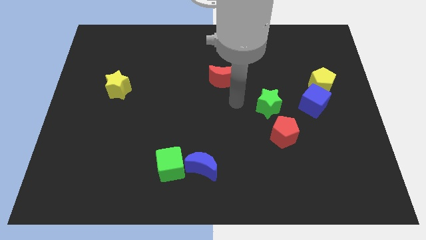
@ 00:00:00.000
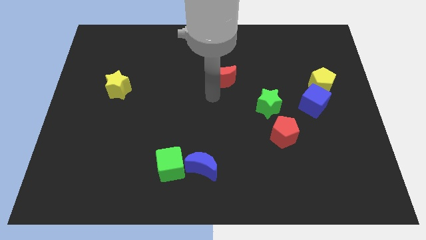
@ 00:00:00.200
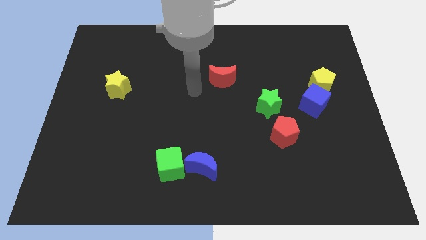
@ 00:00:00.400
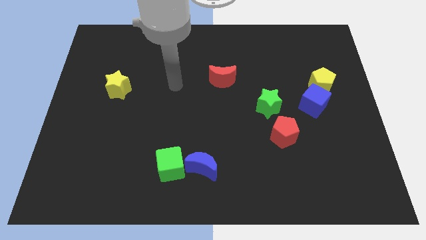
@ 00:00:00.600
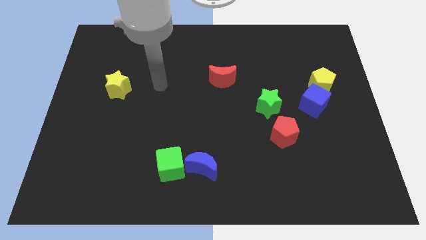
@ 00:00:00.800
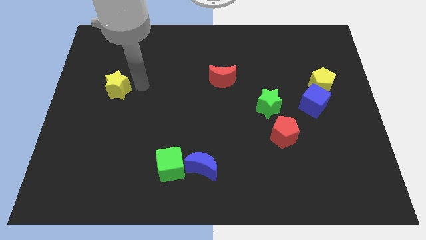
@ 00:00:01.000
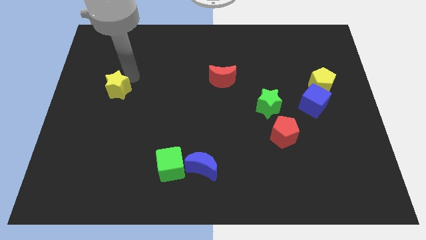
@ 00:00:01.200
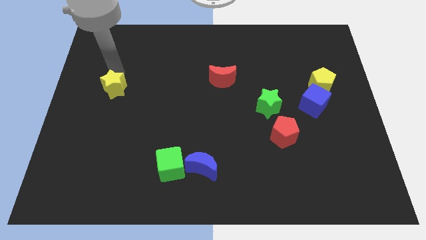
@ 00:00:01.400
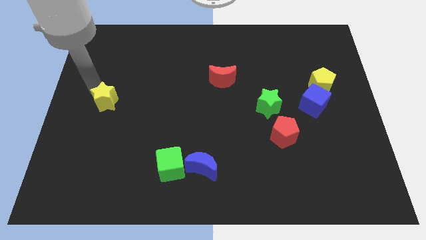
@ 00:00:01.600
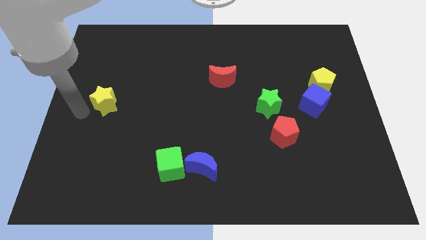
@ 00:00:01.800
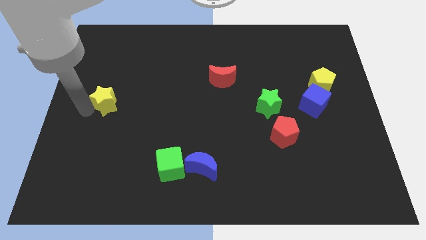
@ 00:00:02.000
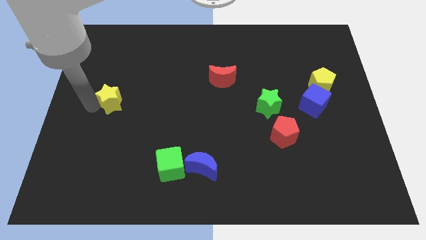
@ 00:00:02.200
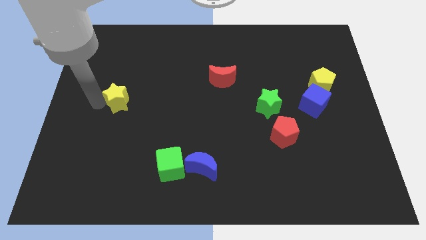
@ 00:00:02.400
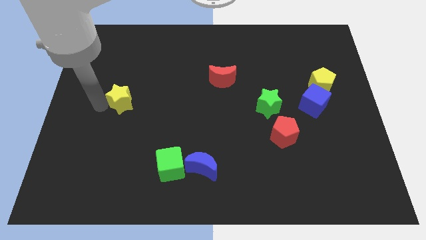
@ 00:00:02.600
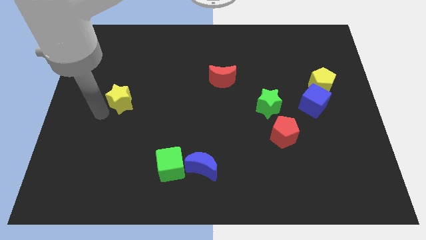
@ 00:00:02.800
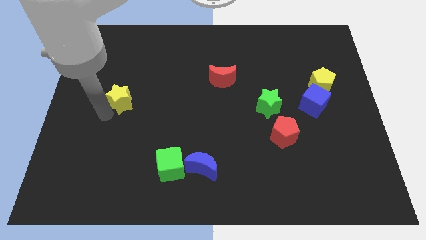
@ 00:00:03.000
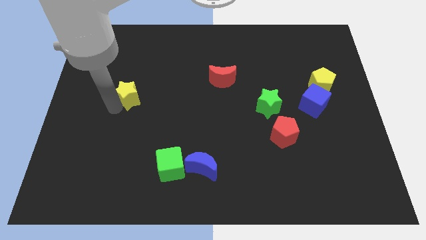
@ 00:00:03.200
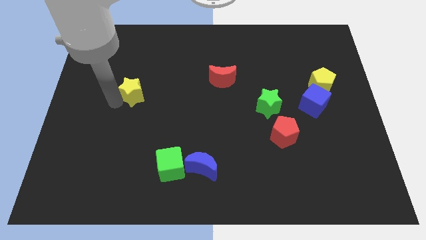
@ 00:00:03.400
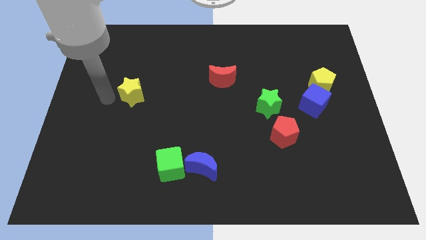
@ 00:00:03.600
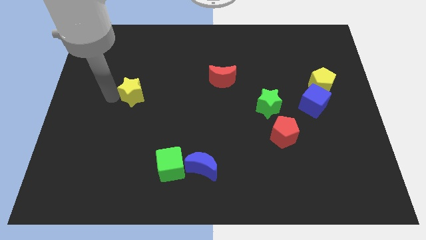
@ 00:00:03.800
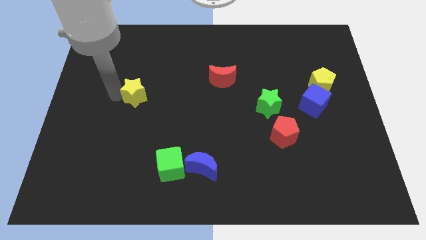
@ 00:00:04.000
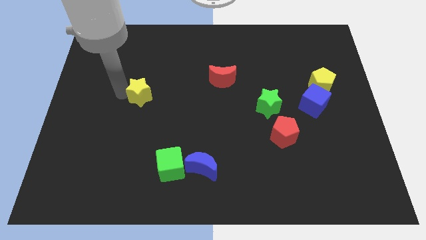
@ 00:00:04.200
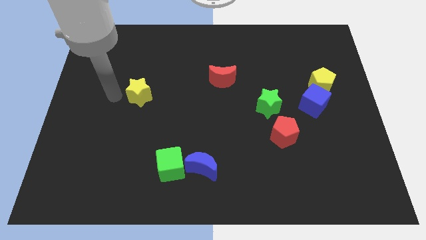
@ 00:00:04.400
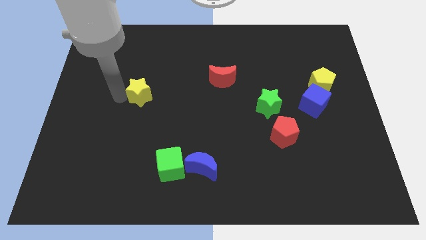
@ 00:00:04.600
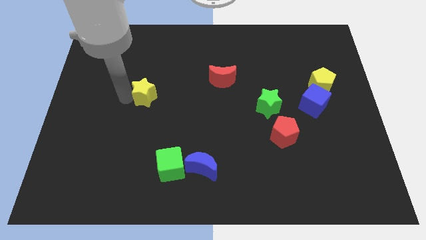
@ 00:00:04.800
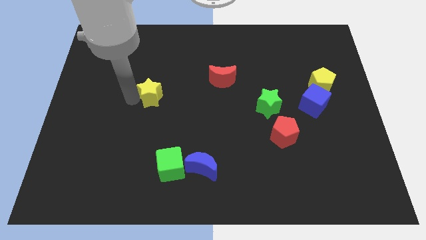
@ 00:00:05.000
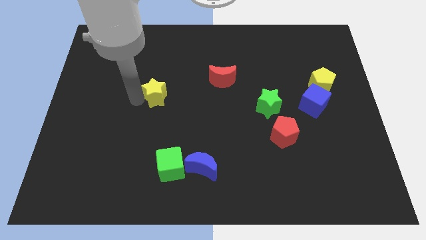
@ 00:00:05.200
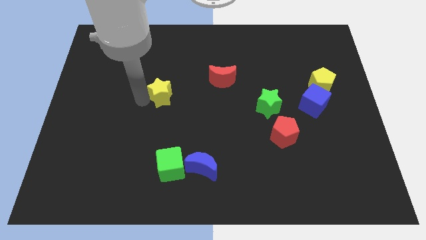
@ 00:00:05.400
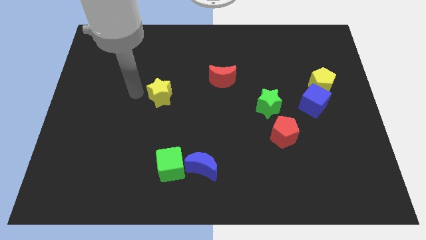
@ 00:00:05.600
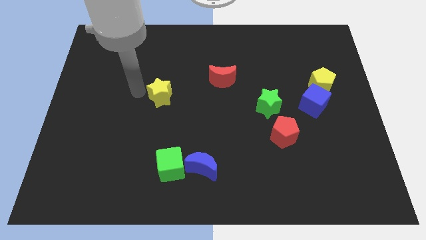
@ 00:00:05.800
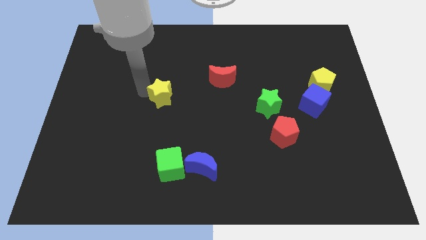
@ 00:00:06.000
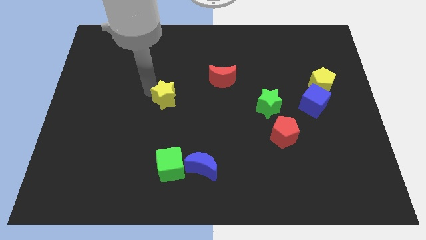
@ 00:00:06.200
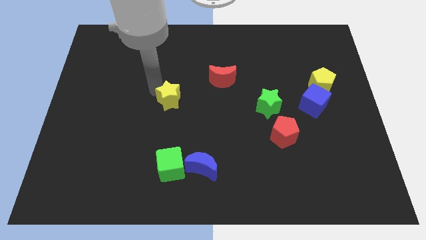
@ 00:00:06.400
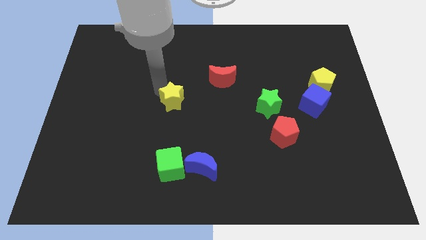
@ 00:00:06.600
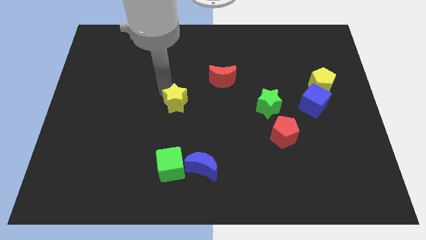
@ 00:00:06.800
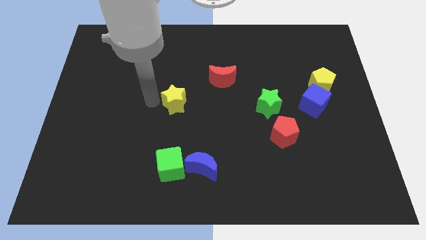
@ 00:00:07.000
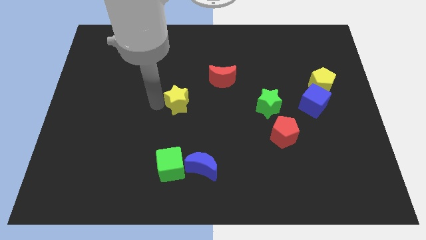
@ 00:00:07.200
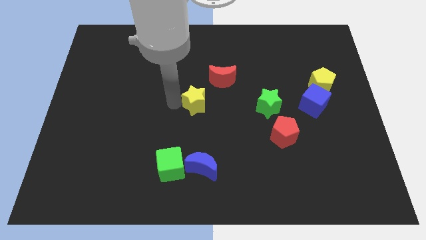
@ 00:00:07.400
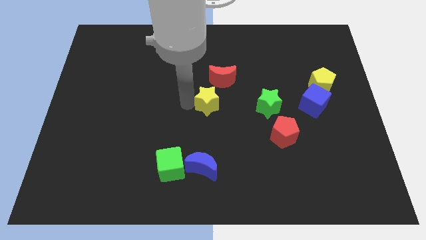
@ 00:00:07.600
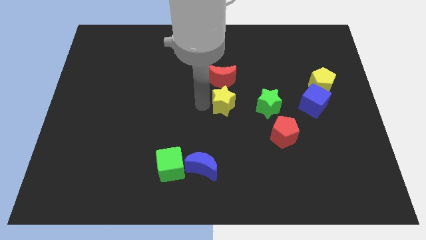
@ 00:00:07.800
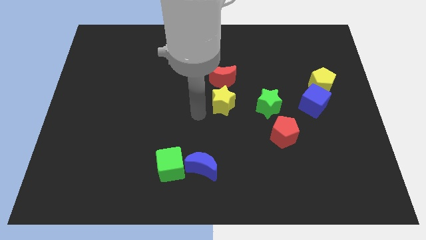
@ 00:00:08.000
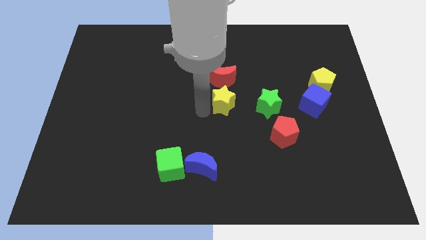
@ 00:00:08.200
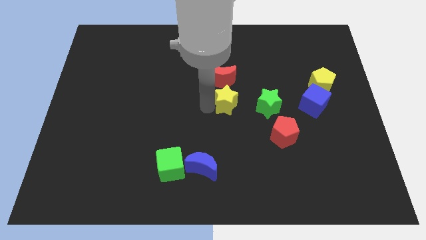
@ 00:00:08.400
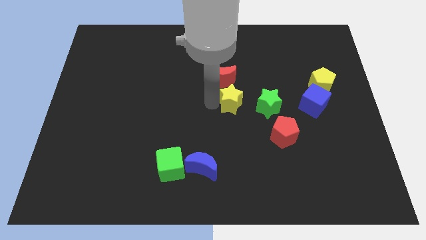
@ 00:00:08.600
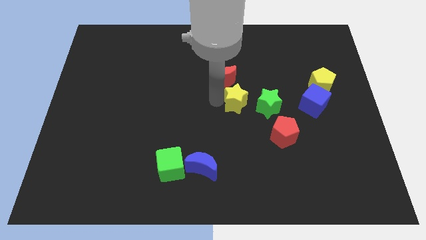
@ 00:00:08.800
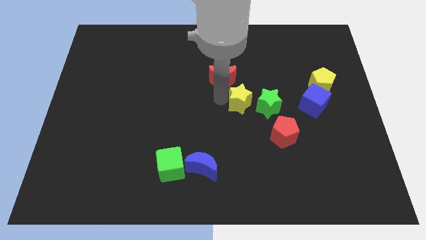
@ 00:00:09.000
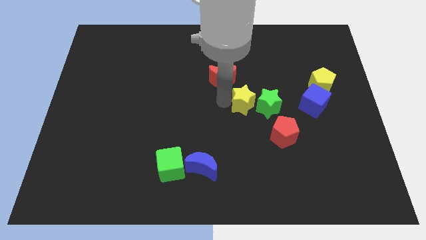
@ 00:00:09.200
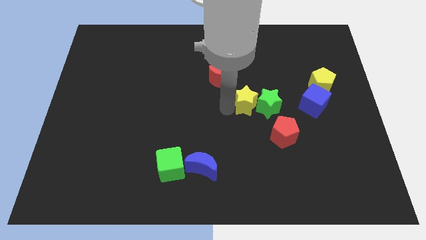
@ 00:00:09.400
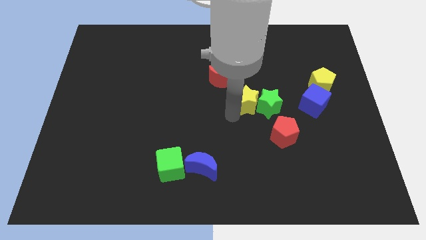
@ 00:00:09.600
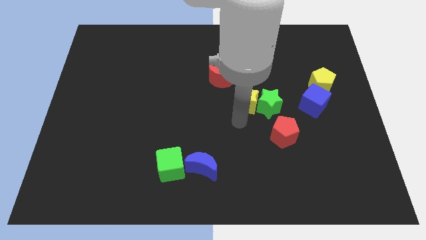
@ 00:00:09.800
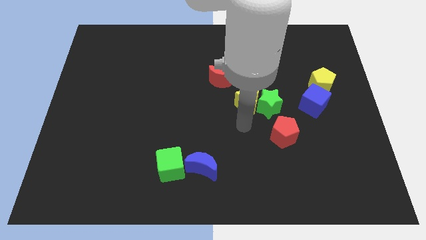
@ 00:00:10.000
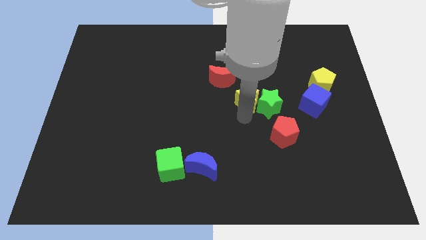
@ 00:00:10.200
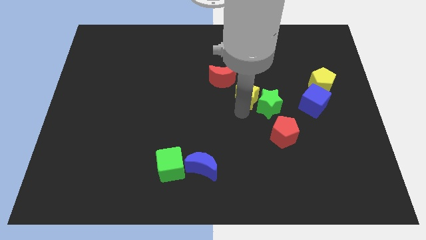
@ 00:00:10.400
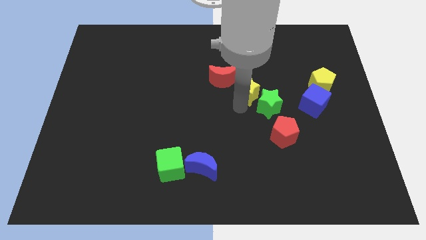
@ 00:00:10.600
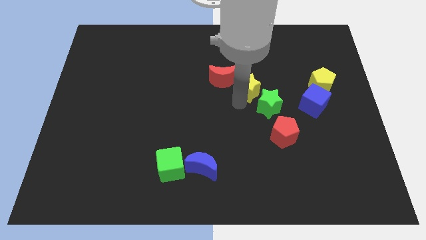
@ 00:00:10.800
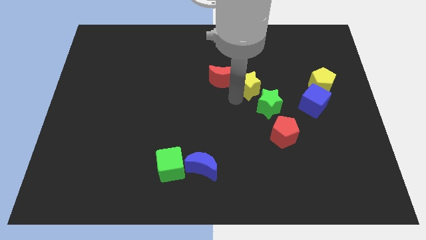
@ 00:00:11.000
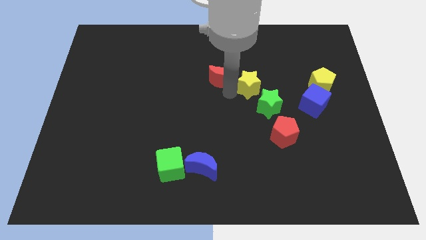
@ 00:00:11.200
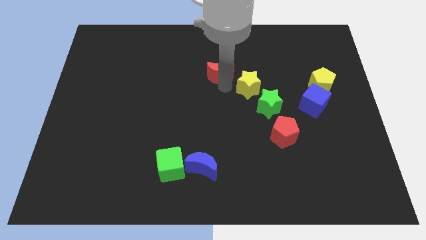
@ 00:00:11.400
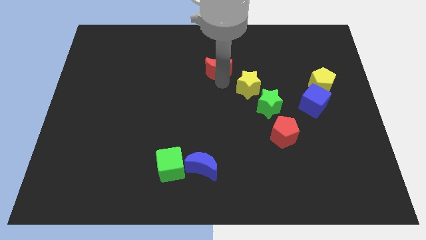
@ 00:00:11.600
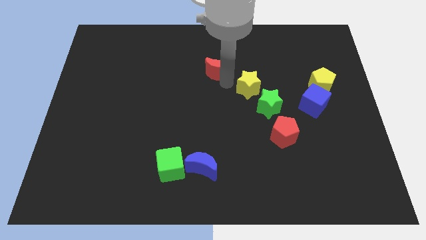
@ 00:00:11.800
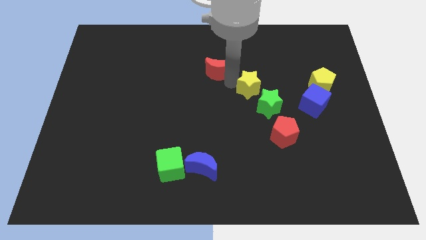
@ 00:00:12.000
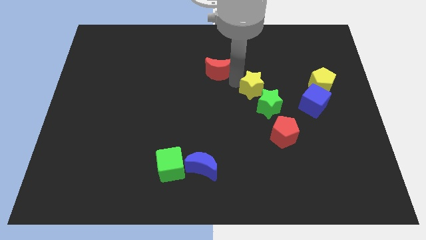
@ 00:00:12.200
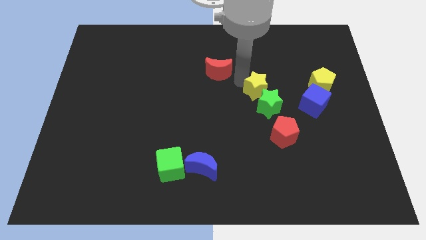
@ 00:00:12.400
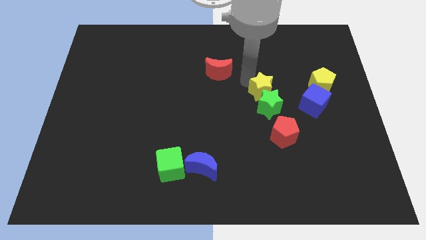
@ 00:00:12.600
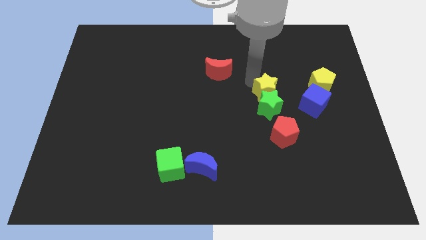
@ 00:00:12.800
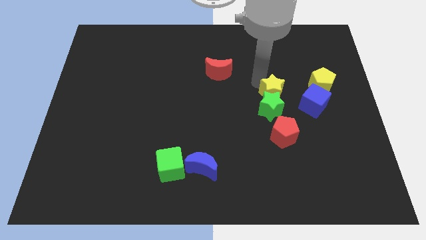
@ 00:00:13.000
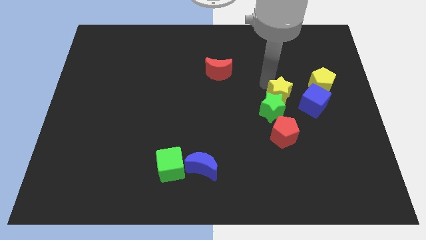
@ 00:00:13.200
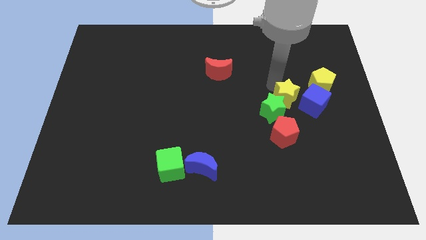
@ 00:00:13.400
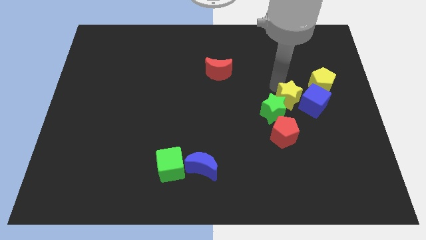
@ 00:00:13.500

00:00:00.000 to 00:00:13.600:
put the yellow star towards the blue cube
